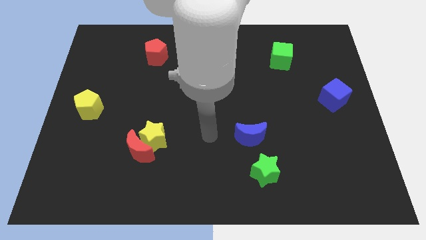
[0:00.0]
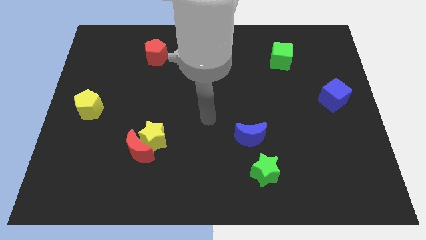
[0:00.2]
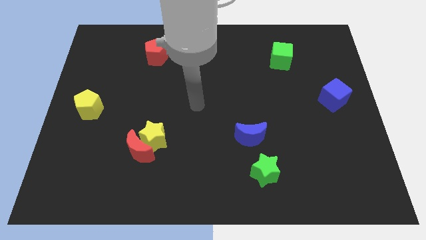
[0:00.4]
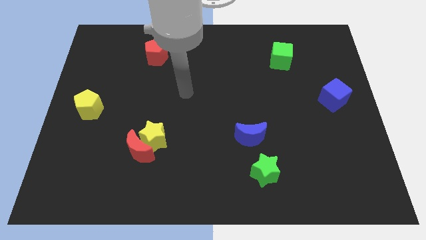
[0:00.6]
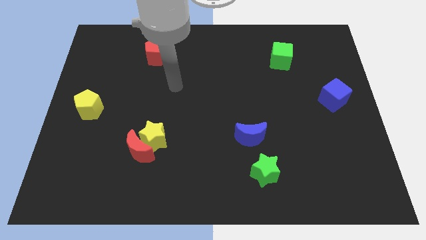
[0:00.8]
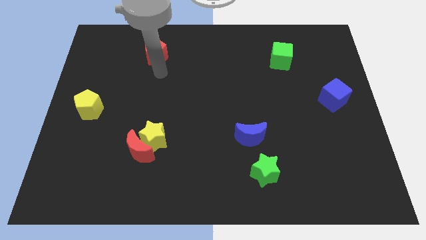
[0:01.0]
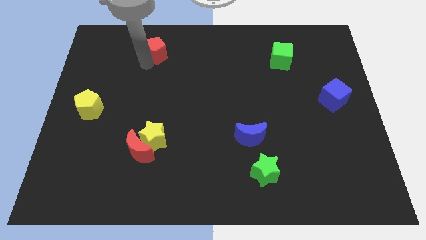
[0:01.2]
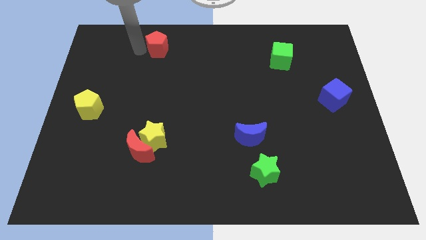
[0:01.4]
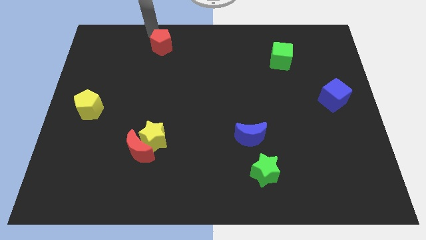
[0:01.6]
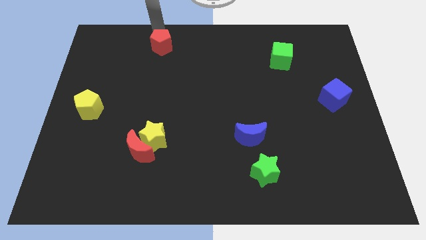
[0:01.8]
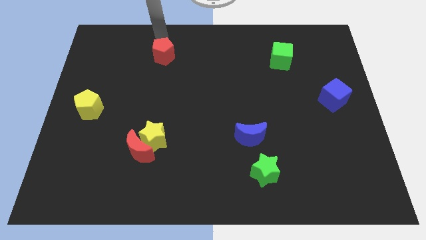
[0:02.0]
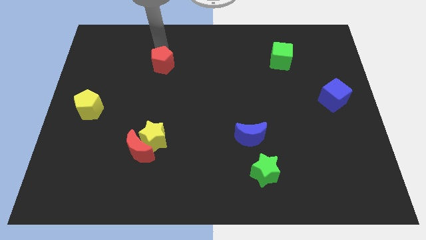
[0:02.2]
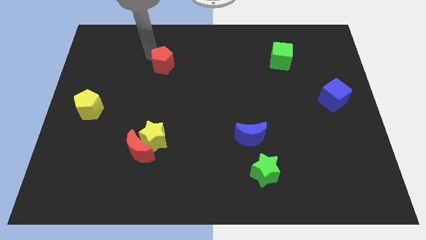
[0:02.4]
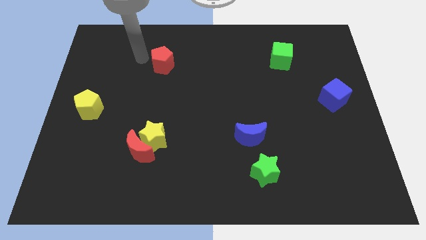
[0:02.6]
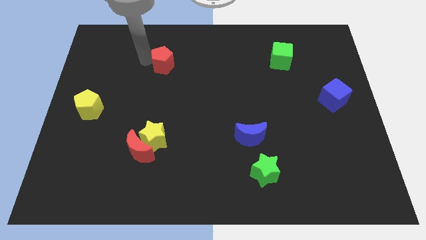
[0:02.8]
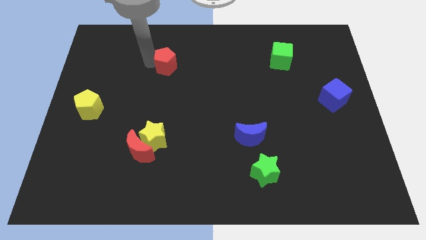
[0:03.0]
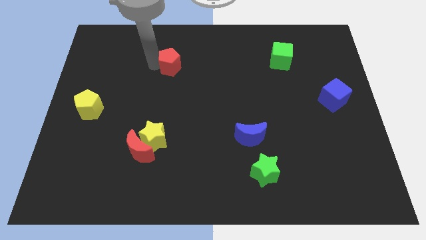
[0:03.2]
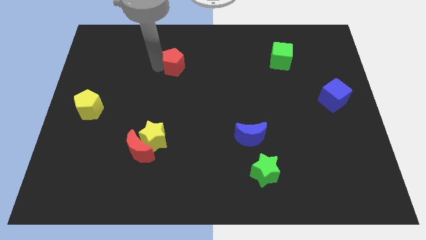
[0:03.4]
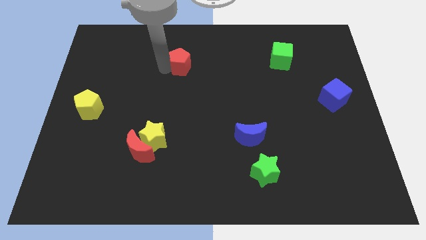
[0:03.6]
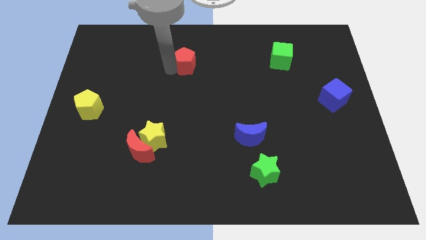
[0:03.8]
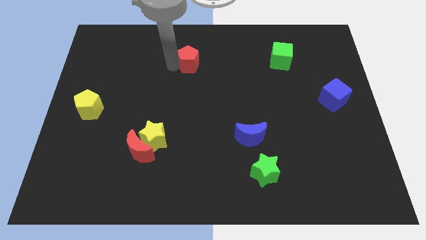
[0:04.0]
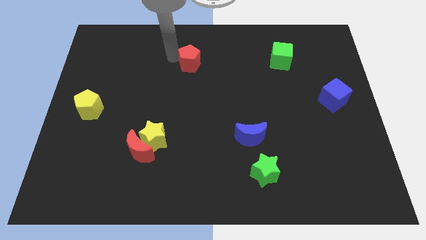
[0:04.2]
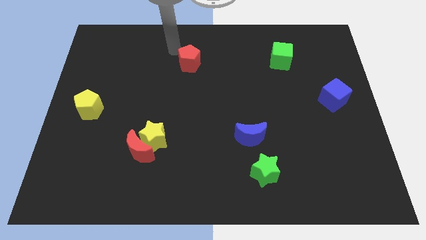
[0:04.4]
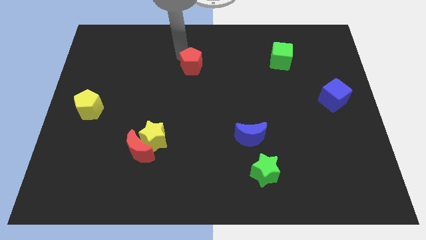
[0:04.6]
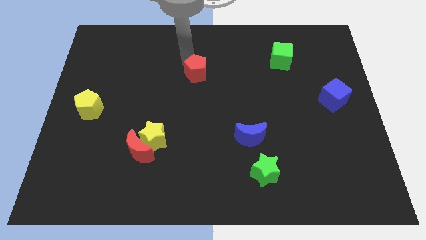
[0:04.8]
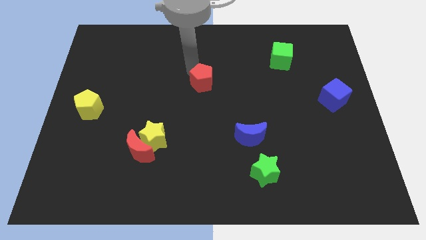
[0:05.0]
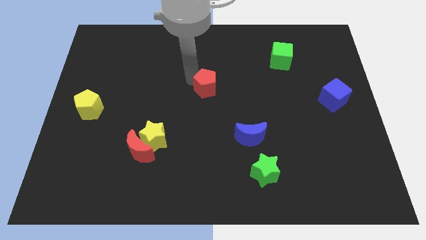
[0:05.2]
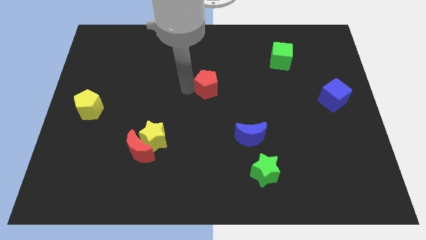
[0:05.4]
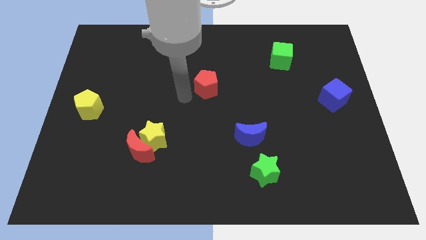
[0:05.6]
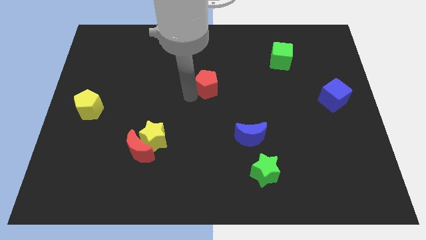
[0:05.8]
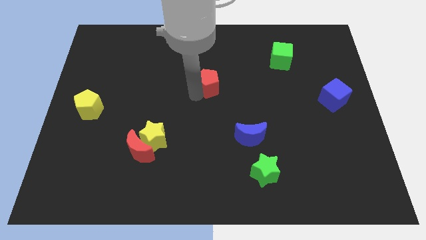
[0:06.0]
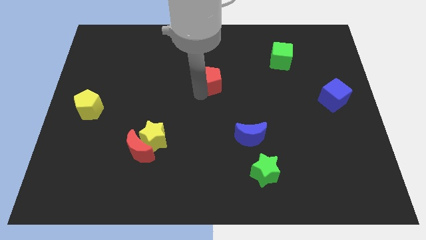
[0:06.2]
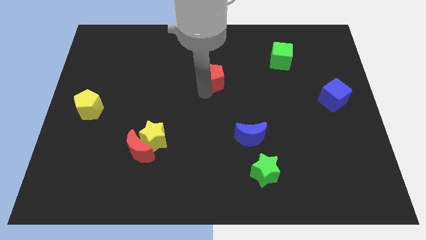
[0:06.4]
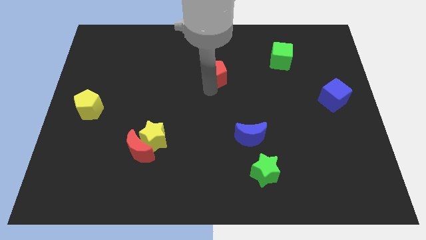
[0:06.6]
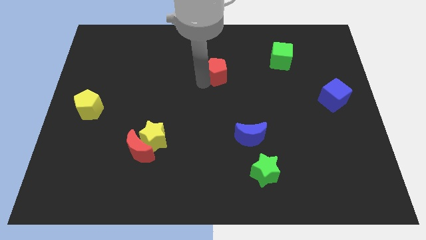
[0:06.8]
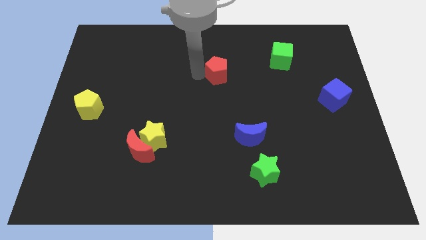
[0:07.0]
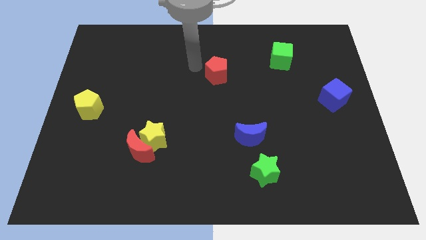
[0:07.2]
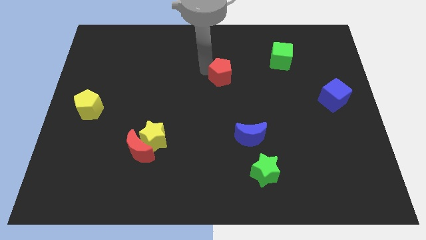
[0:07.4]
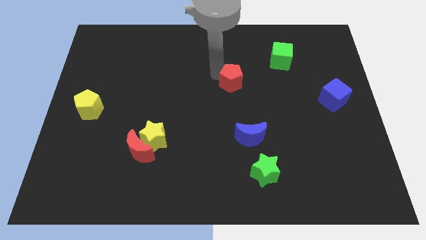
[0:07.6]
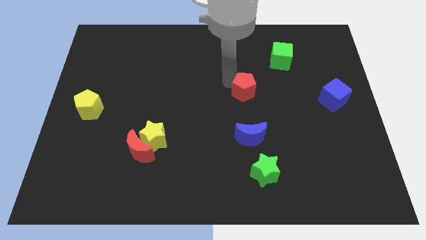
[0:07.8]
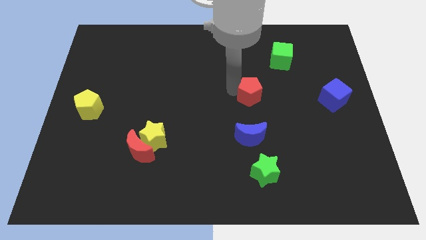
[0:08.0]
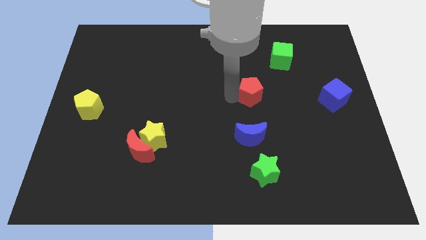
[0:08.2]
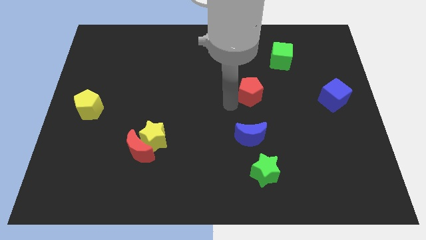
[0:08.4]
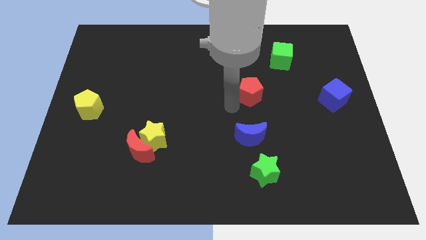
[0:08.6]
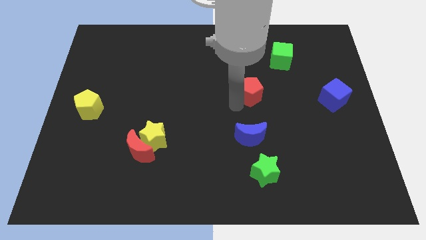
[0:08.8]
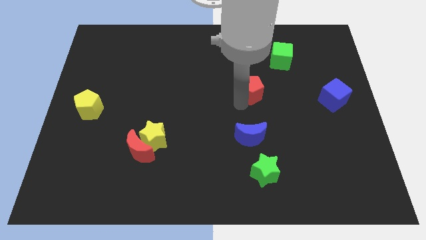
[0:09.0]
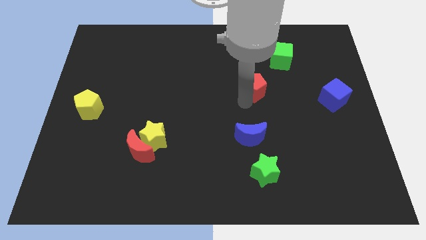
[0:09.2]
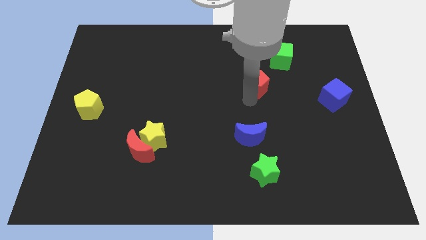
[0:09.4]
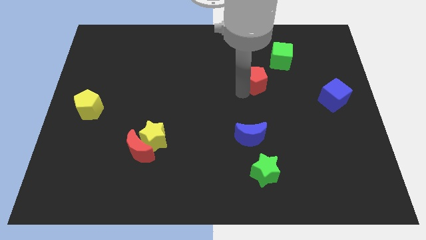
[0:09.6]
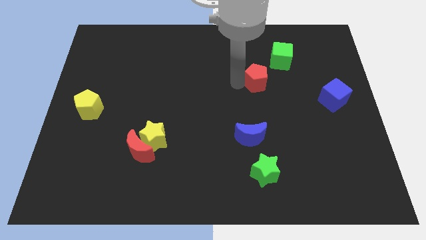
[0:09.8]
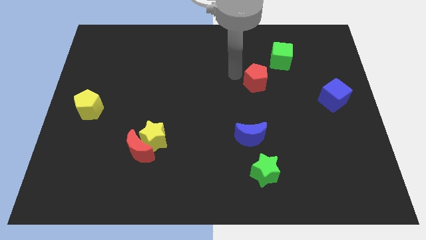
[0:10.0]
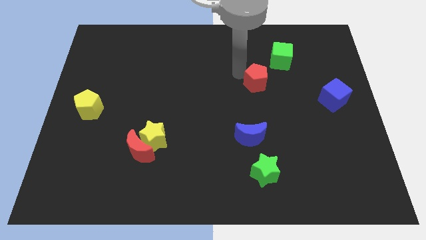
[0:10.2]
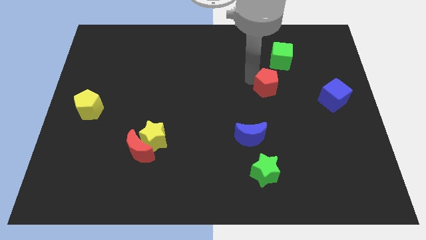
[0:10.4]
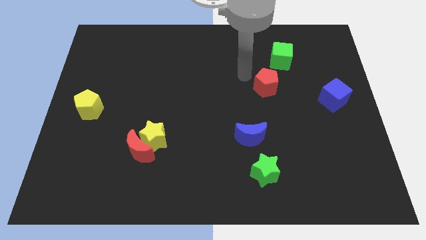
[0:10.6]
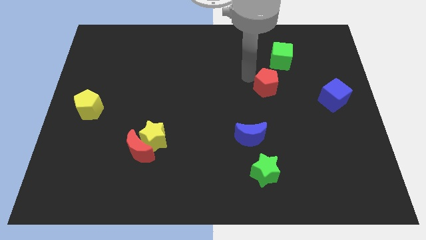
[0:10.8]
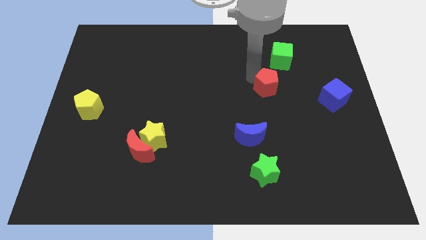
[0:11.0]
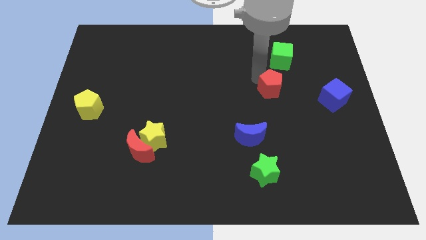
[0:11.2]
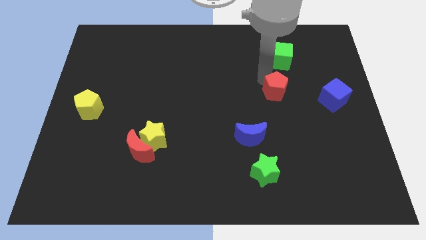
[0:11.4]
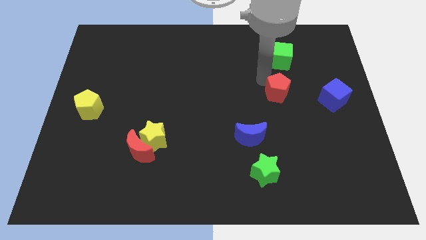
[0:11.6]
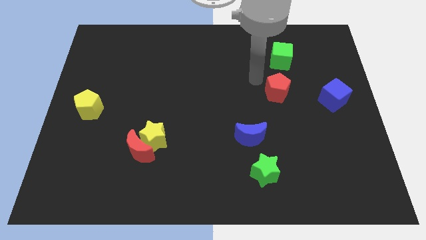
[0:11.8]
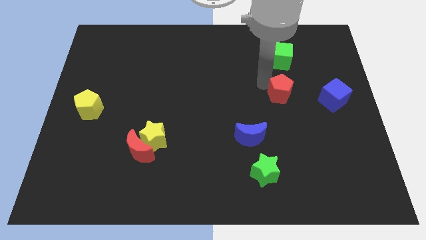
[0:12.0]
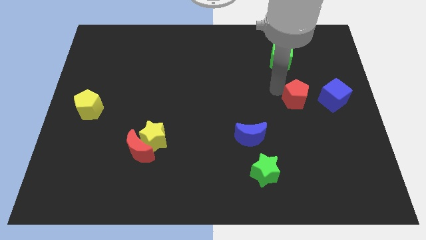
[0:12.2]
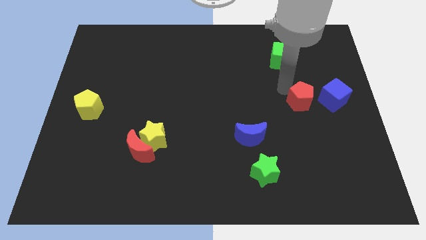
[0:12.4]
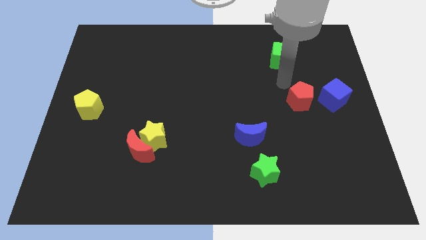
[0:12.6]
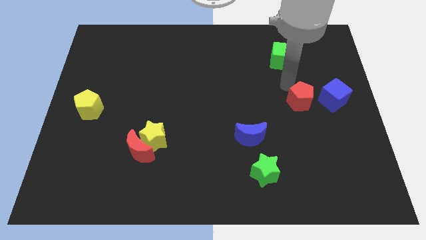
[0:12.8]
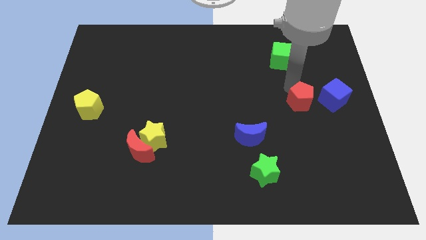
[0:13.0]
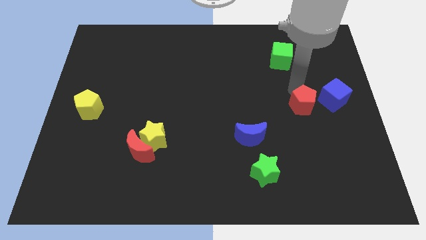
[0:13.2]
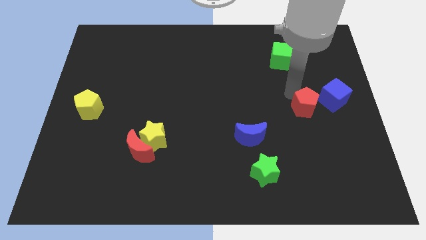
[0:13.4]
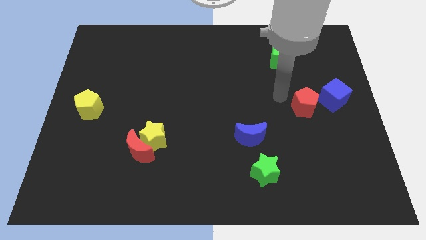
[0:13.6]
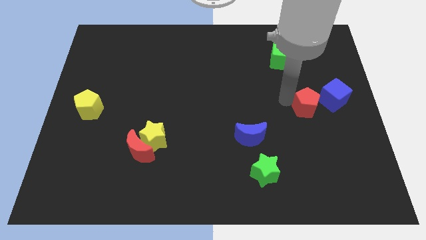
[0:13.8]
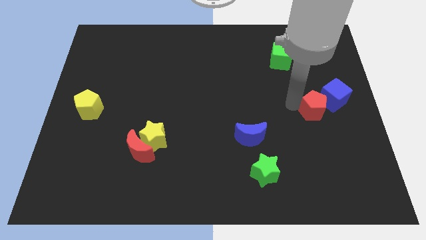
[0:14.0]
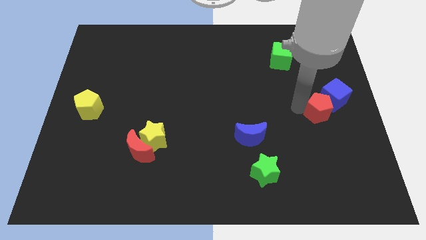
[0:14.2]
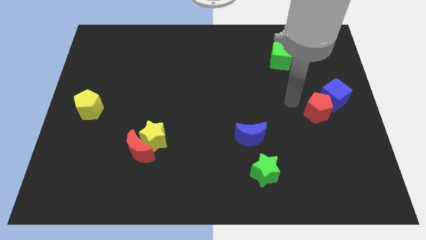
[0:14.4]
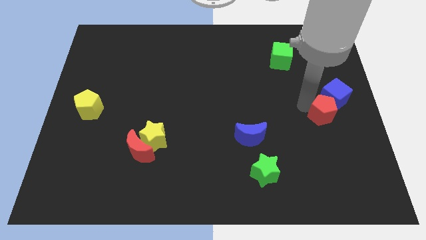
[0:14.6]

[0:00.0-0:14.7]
move the red pentagon to the right side
